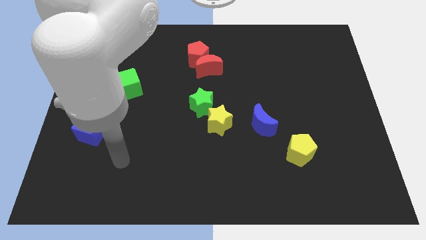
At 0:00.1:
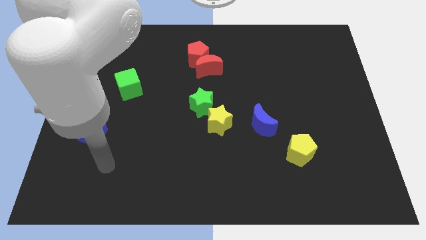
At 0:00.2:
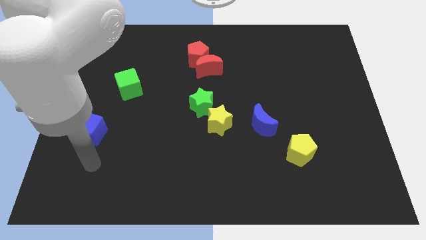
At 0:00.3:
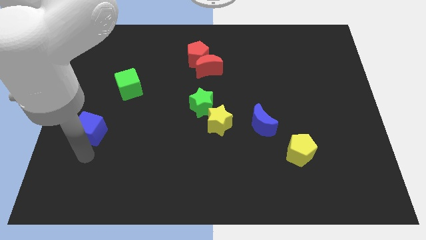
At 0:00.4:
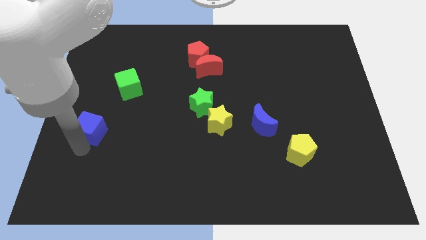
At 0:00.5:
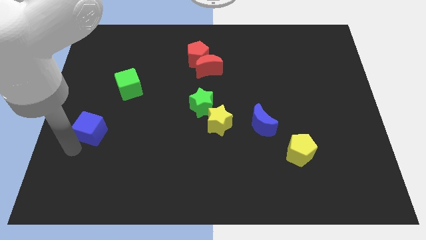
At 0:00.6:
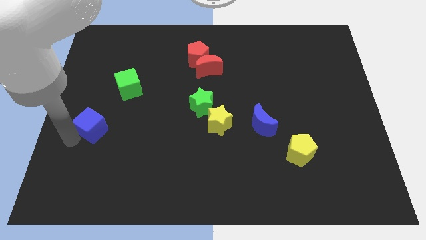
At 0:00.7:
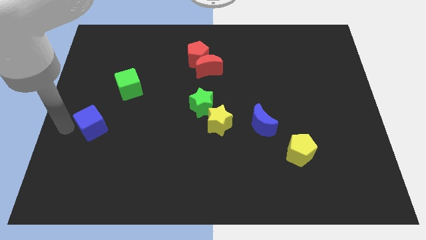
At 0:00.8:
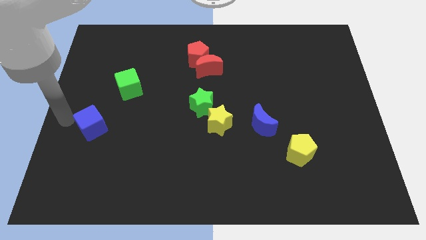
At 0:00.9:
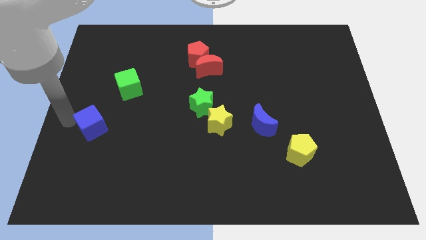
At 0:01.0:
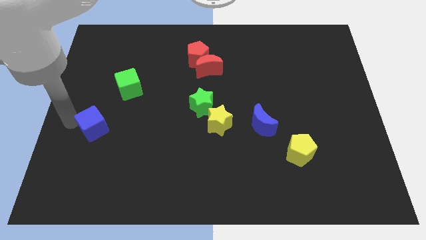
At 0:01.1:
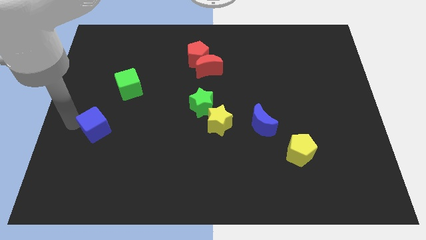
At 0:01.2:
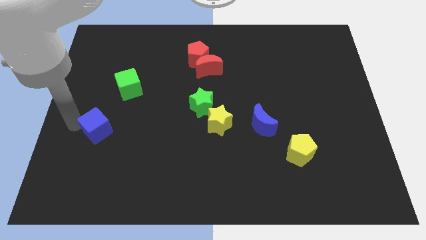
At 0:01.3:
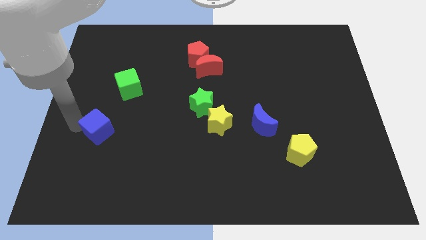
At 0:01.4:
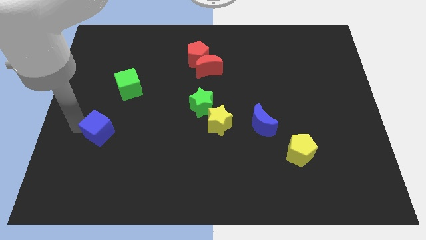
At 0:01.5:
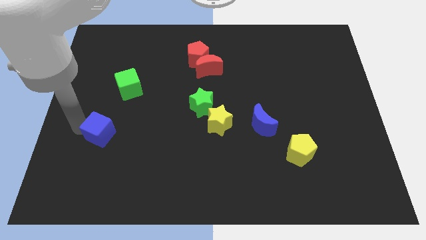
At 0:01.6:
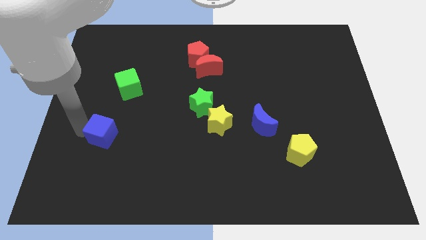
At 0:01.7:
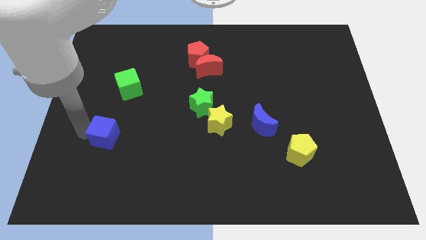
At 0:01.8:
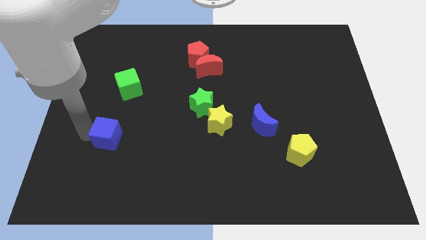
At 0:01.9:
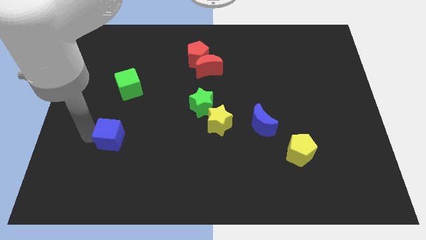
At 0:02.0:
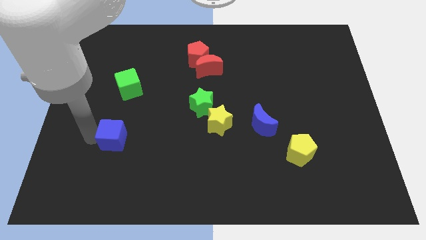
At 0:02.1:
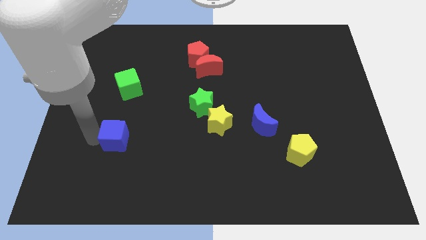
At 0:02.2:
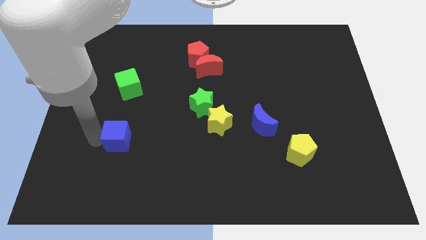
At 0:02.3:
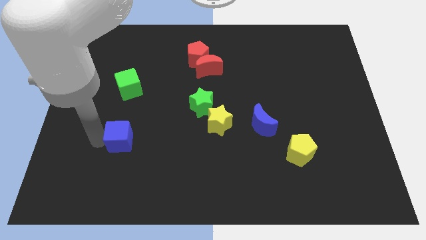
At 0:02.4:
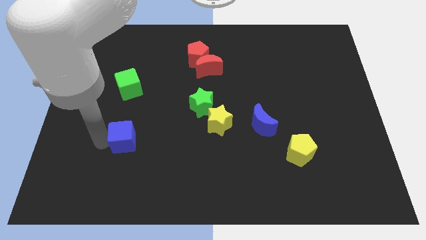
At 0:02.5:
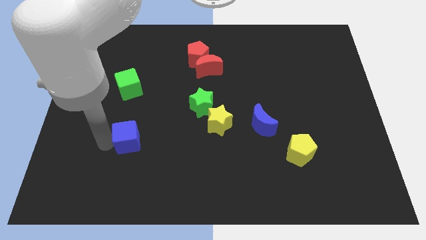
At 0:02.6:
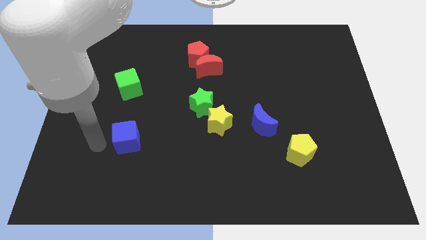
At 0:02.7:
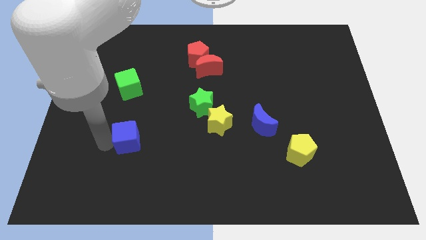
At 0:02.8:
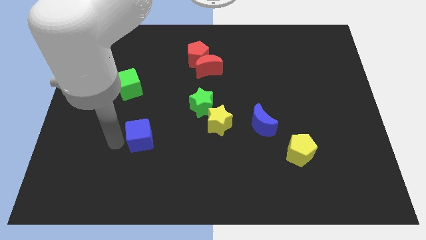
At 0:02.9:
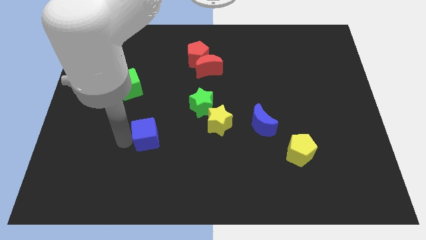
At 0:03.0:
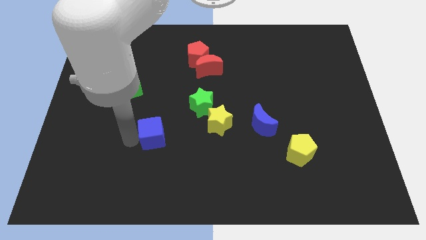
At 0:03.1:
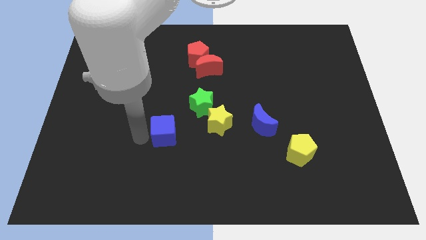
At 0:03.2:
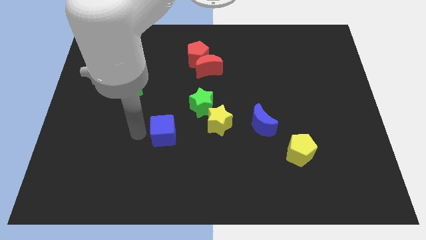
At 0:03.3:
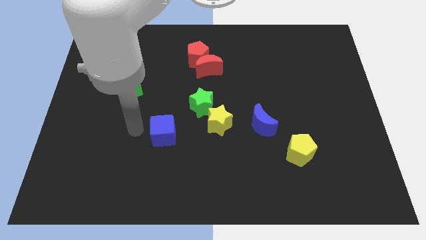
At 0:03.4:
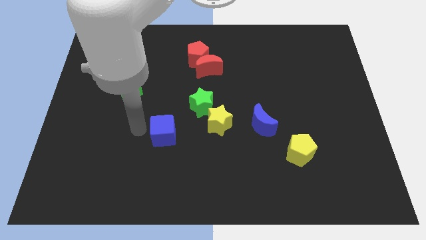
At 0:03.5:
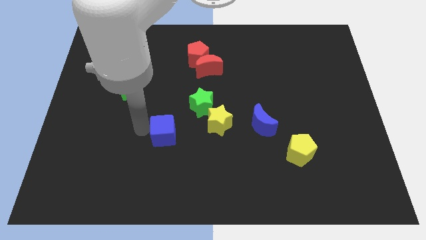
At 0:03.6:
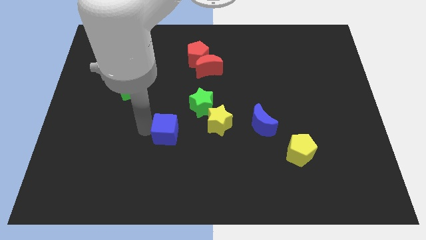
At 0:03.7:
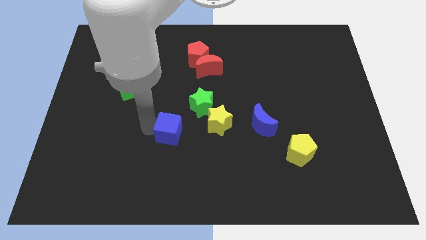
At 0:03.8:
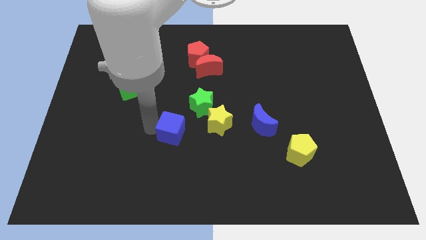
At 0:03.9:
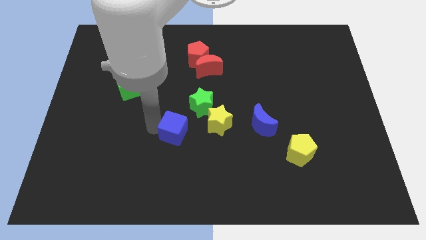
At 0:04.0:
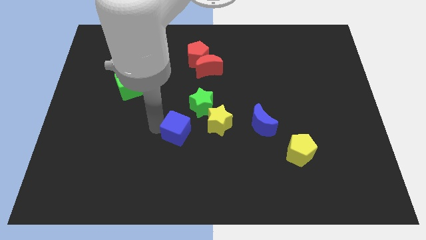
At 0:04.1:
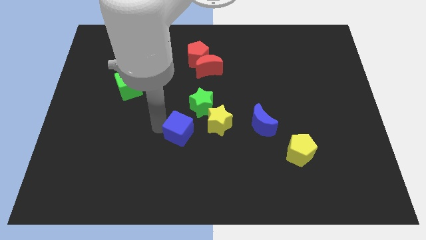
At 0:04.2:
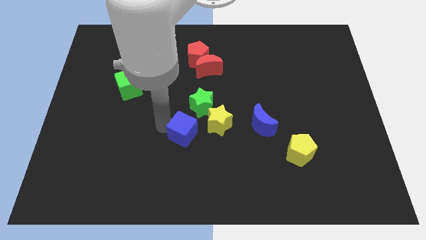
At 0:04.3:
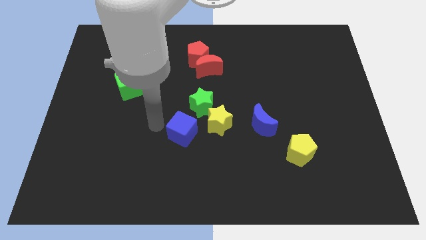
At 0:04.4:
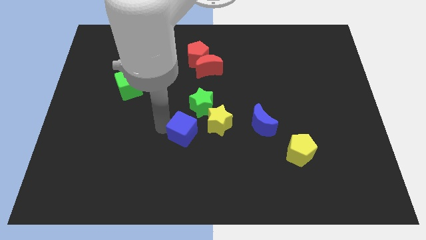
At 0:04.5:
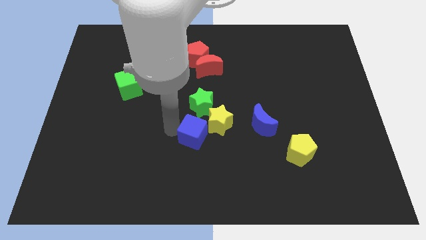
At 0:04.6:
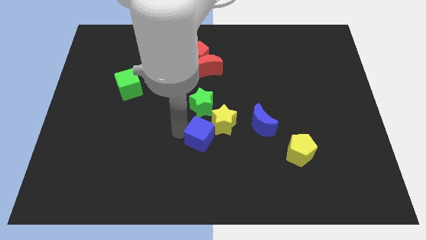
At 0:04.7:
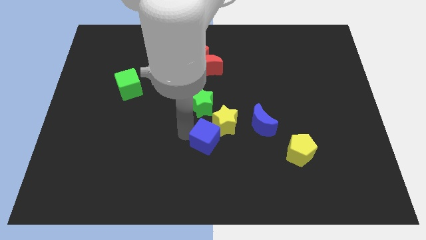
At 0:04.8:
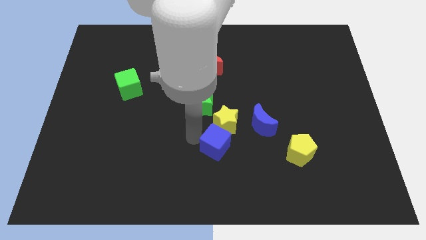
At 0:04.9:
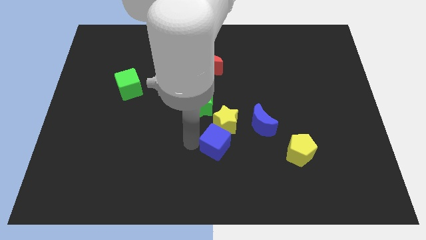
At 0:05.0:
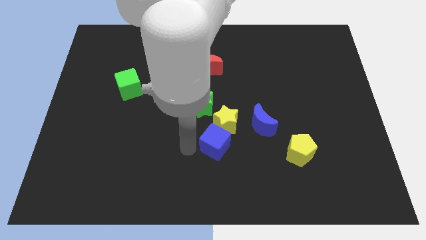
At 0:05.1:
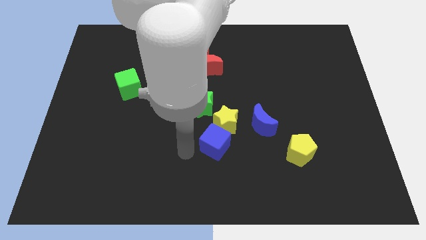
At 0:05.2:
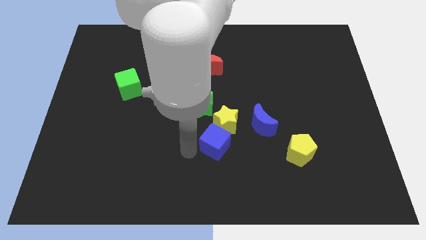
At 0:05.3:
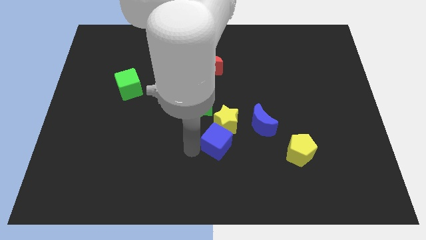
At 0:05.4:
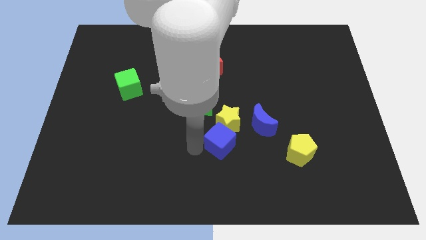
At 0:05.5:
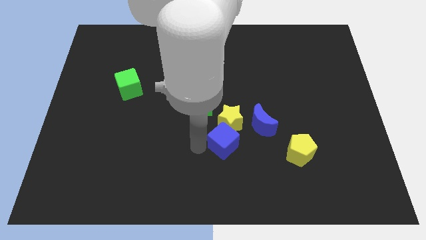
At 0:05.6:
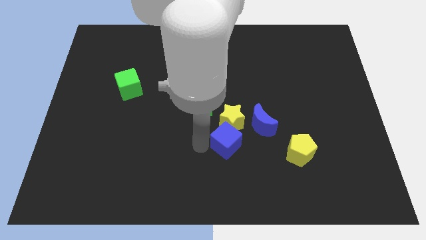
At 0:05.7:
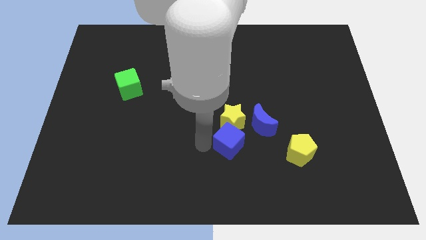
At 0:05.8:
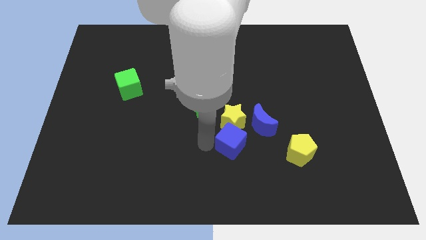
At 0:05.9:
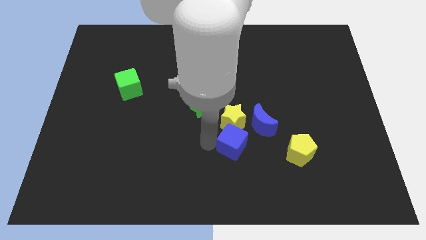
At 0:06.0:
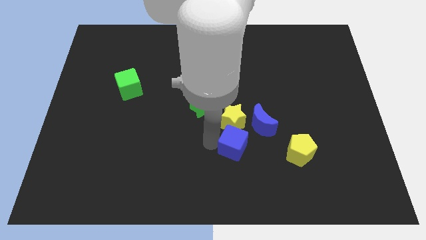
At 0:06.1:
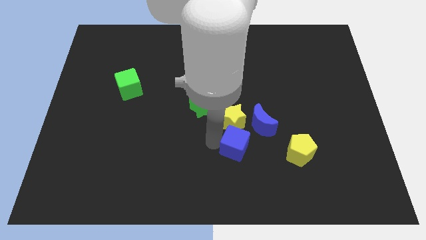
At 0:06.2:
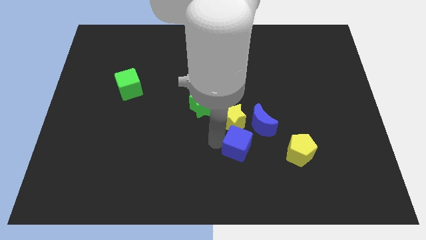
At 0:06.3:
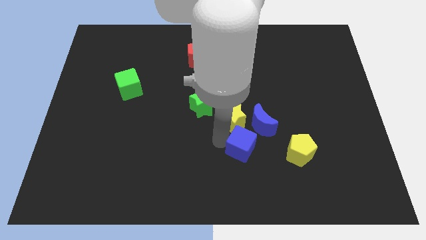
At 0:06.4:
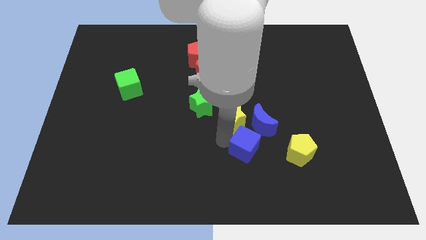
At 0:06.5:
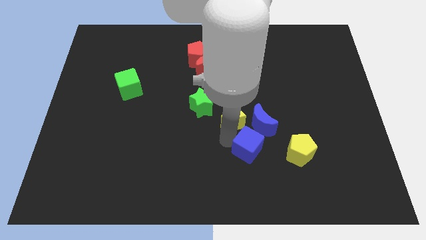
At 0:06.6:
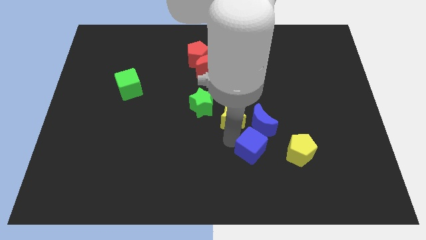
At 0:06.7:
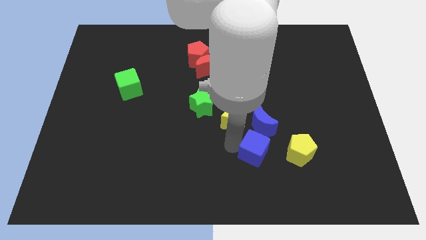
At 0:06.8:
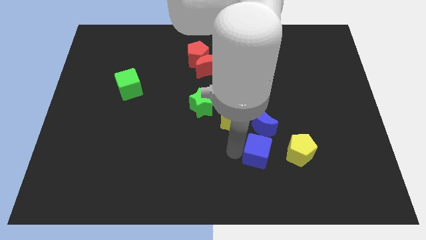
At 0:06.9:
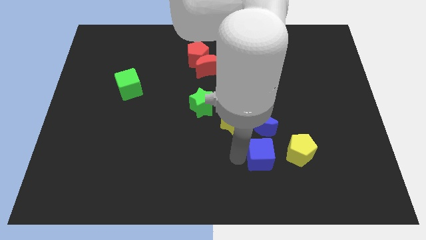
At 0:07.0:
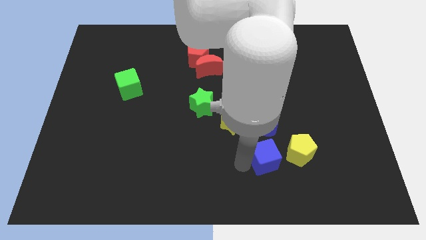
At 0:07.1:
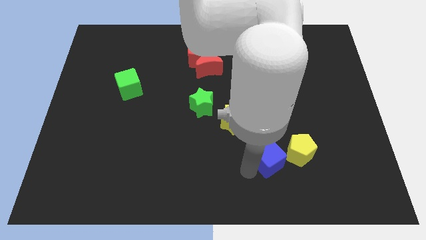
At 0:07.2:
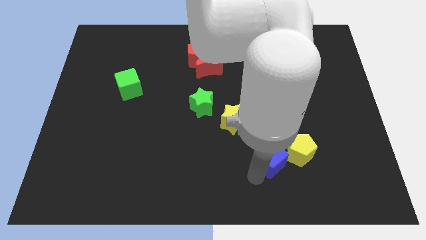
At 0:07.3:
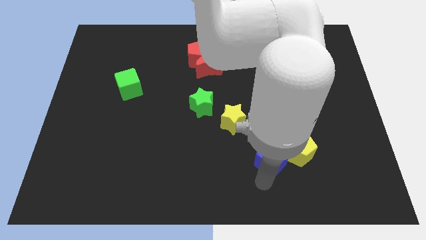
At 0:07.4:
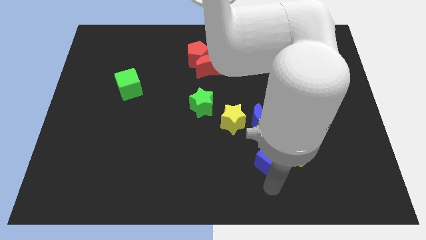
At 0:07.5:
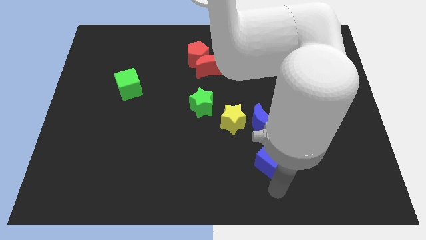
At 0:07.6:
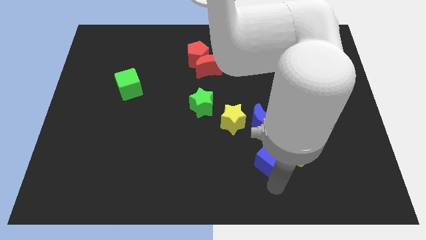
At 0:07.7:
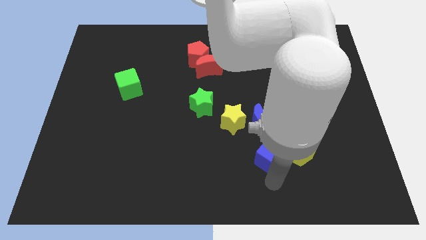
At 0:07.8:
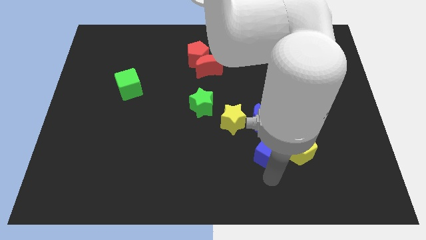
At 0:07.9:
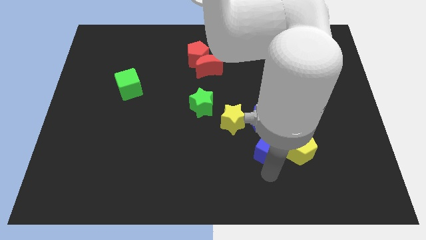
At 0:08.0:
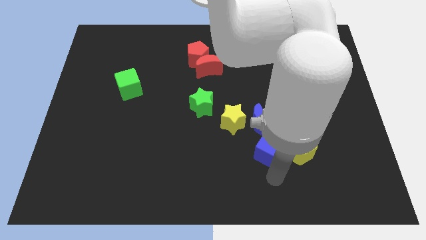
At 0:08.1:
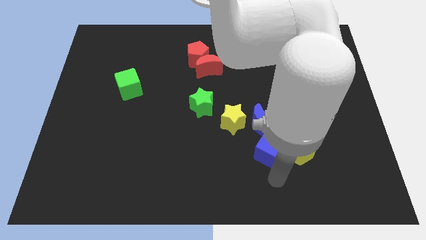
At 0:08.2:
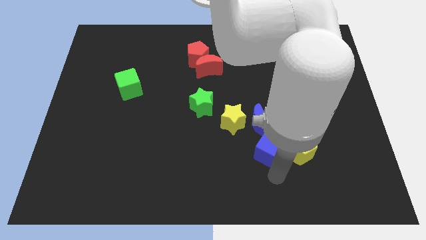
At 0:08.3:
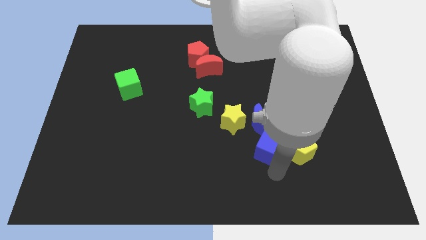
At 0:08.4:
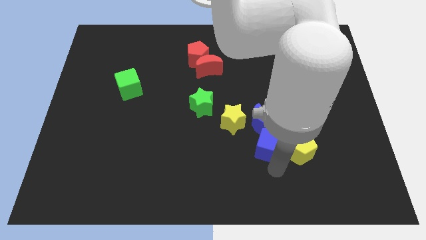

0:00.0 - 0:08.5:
move the blue cube close to the blue moon
